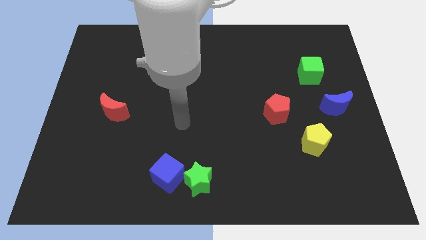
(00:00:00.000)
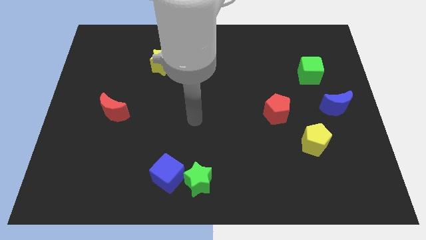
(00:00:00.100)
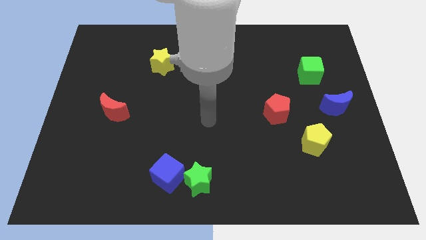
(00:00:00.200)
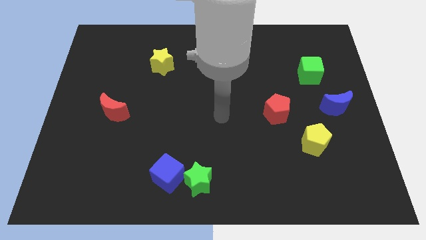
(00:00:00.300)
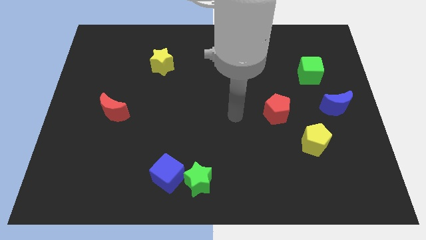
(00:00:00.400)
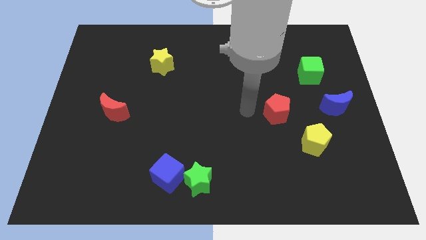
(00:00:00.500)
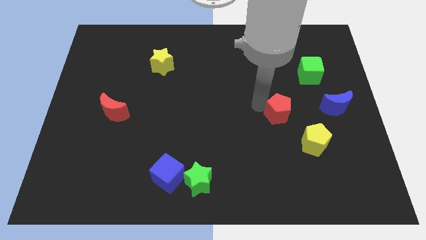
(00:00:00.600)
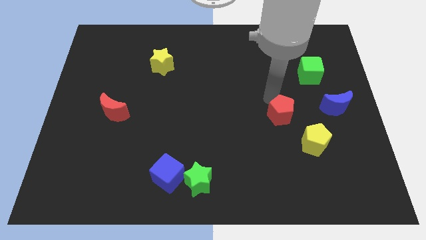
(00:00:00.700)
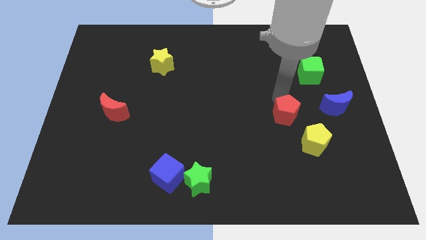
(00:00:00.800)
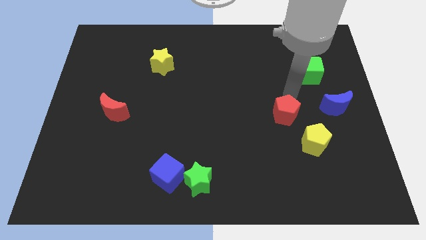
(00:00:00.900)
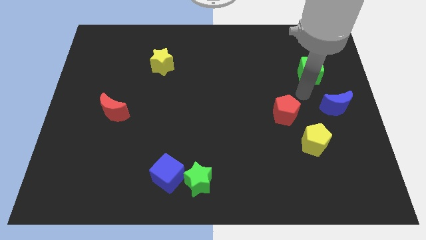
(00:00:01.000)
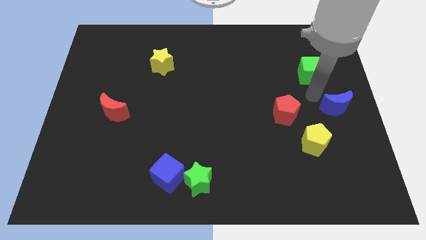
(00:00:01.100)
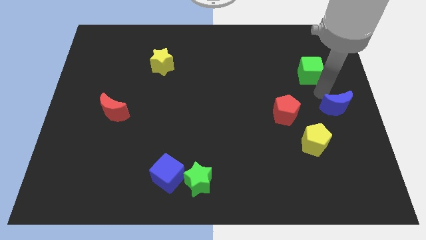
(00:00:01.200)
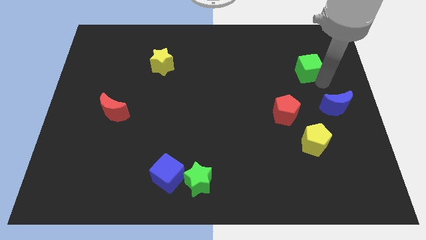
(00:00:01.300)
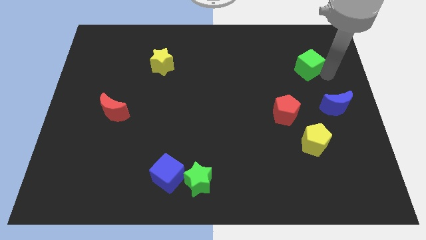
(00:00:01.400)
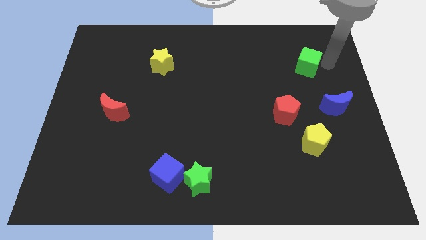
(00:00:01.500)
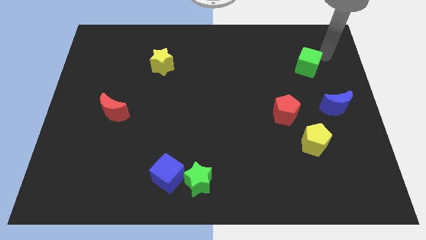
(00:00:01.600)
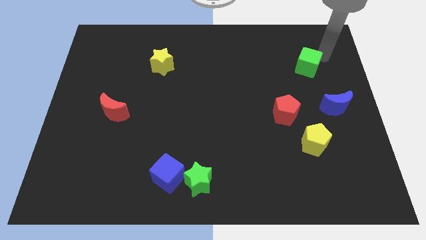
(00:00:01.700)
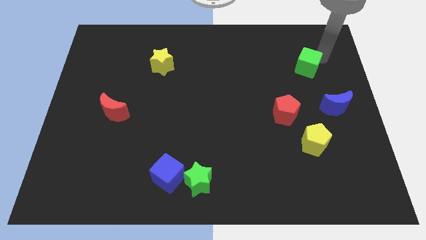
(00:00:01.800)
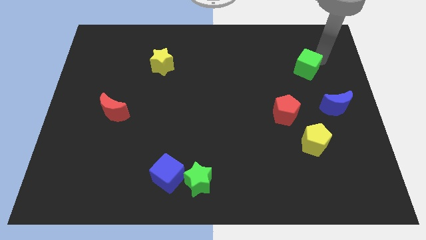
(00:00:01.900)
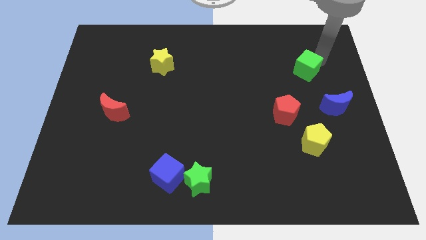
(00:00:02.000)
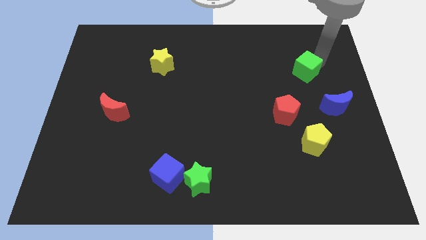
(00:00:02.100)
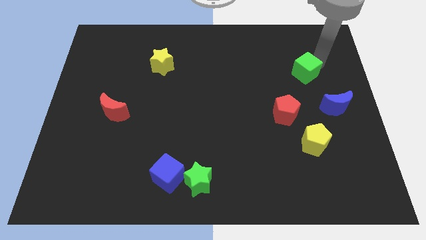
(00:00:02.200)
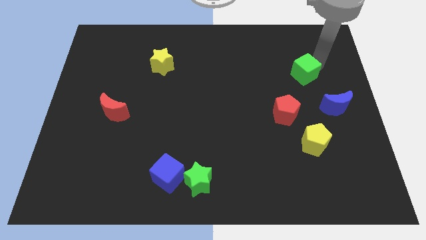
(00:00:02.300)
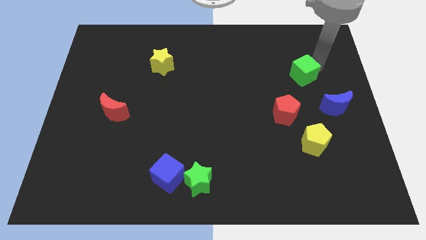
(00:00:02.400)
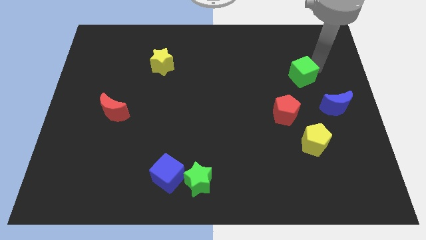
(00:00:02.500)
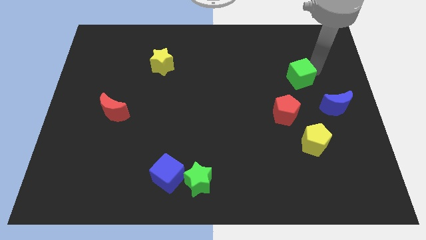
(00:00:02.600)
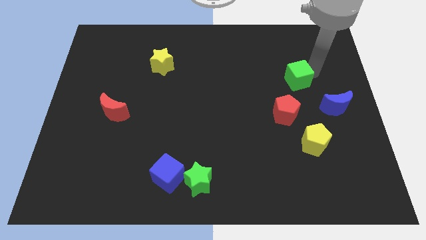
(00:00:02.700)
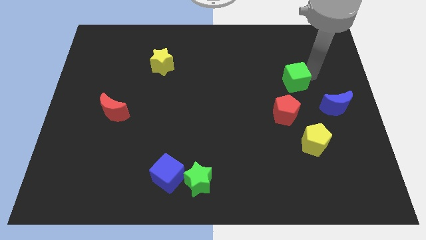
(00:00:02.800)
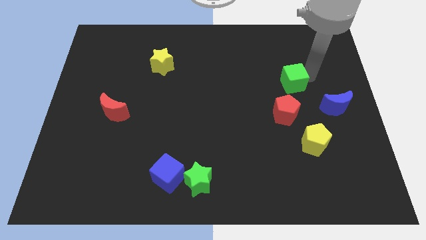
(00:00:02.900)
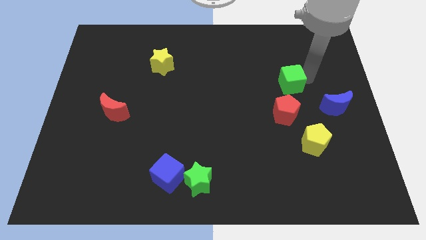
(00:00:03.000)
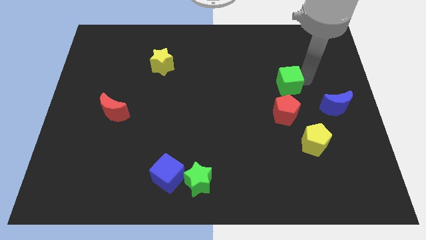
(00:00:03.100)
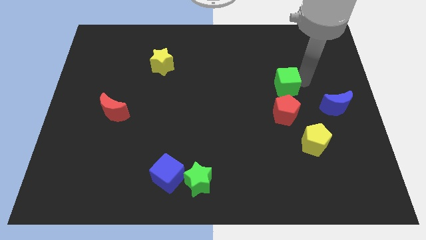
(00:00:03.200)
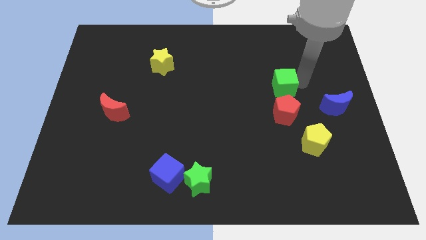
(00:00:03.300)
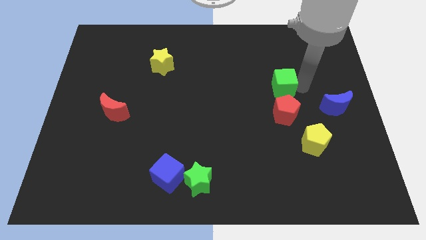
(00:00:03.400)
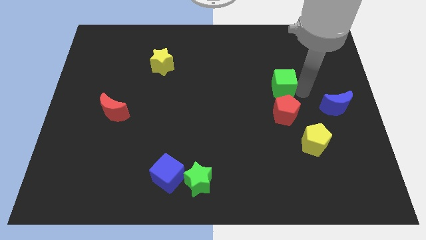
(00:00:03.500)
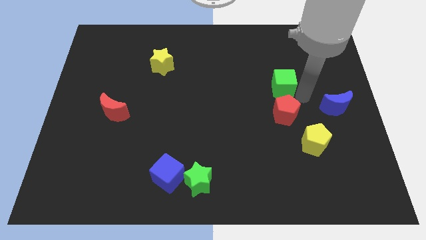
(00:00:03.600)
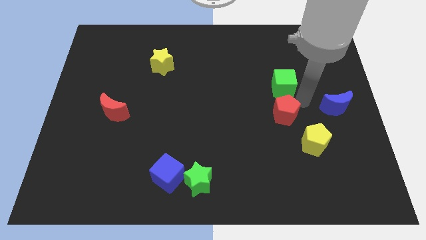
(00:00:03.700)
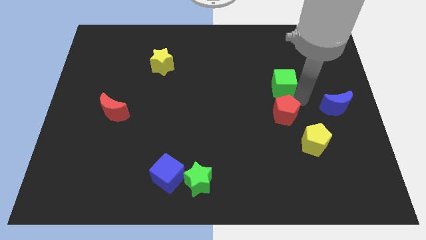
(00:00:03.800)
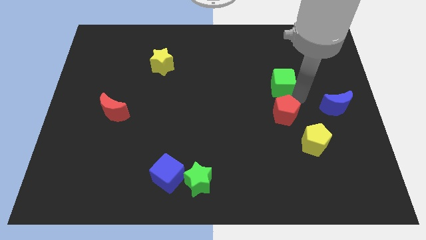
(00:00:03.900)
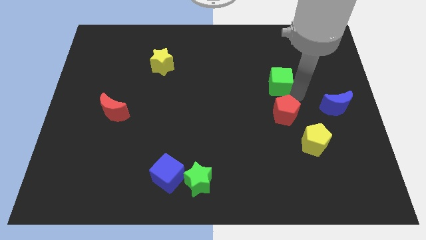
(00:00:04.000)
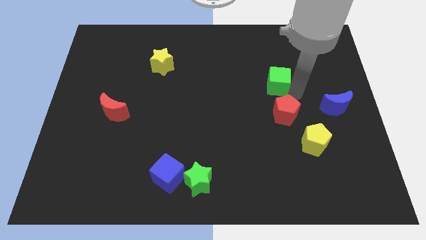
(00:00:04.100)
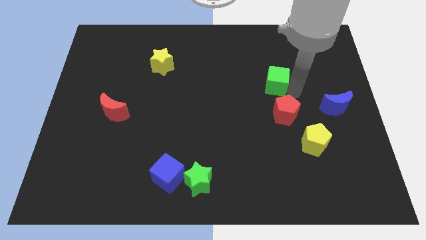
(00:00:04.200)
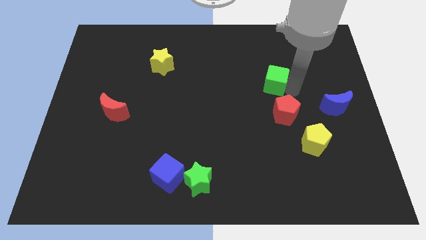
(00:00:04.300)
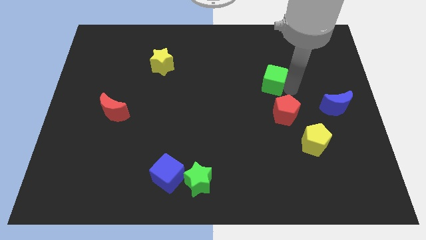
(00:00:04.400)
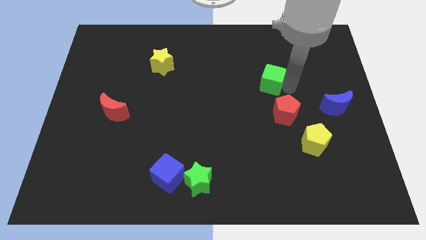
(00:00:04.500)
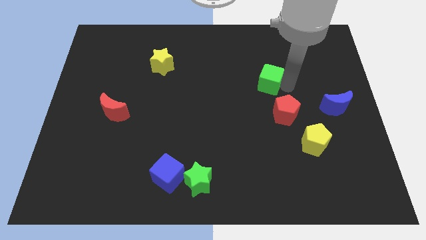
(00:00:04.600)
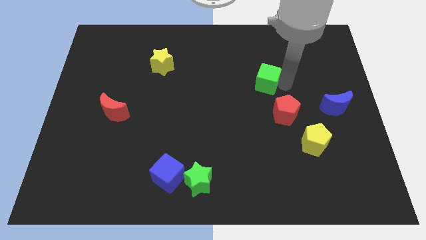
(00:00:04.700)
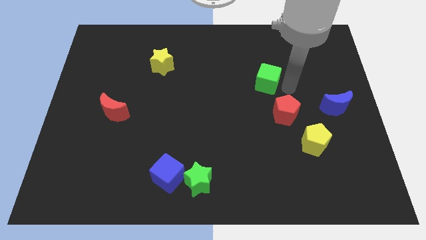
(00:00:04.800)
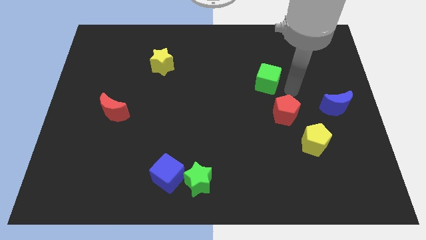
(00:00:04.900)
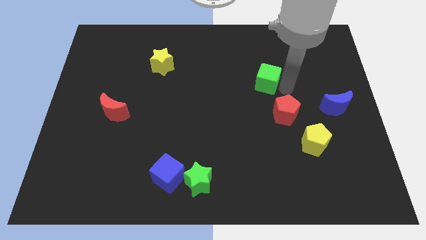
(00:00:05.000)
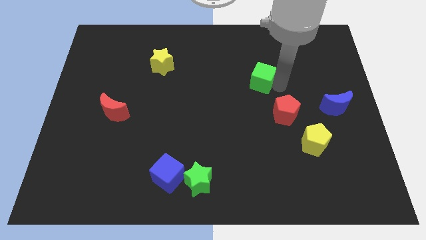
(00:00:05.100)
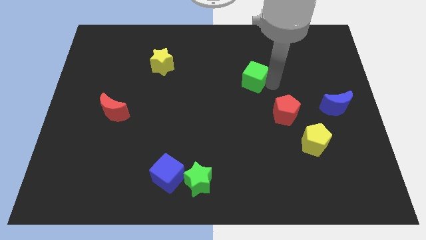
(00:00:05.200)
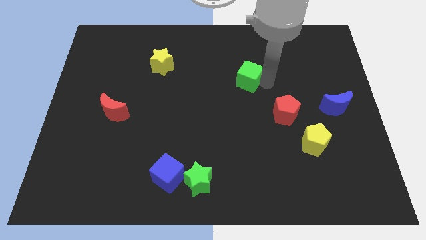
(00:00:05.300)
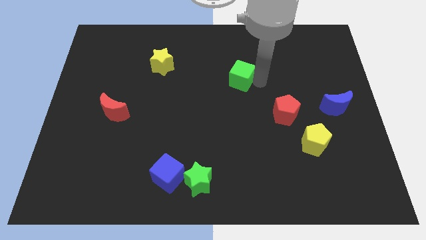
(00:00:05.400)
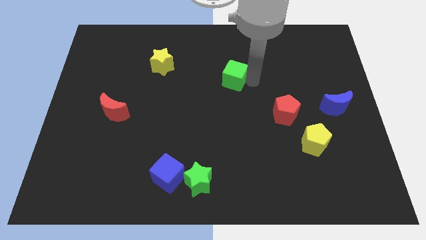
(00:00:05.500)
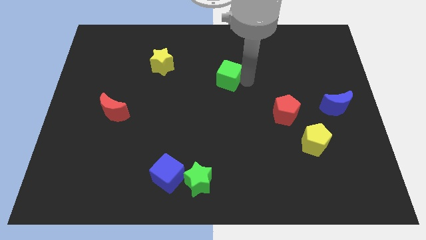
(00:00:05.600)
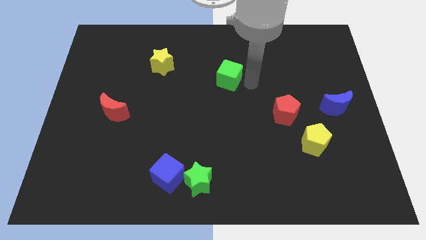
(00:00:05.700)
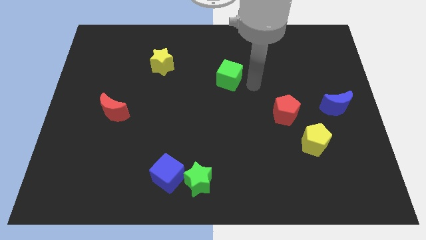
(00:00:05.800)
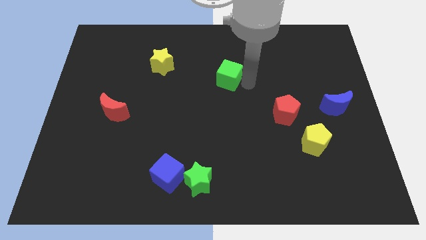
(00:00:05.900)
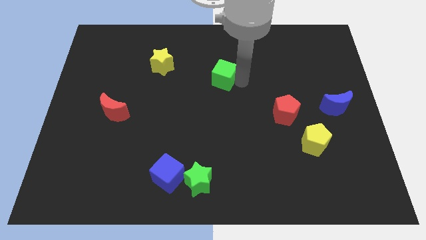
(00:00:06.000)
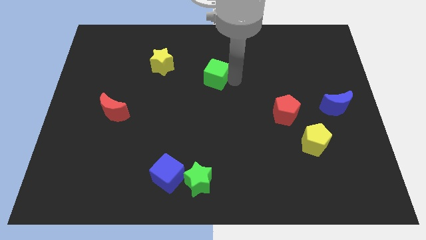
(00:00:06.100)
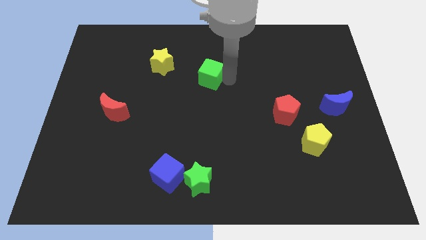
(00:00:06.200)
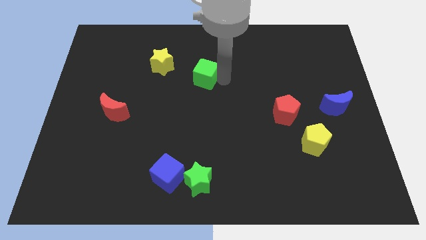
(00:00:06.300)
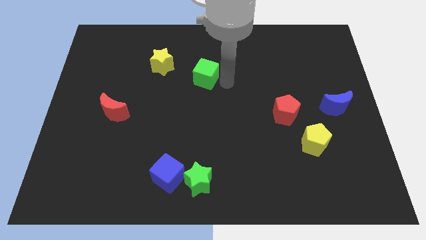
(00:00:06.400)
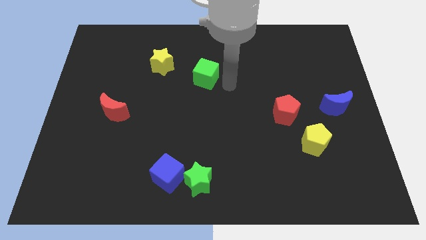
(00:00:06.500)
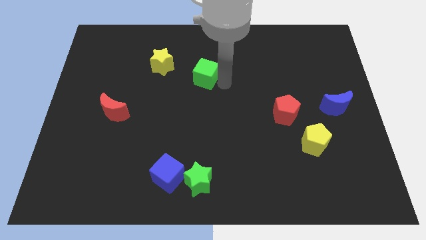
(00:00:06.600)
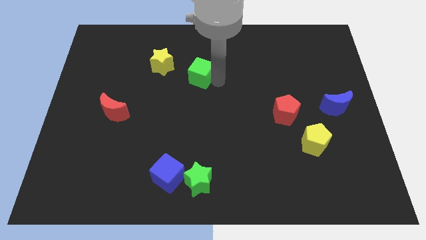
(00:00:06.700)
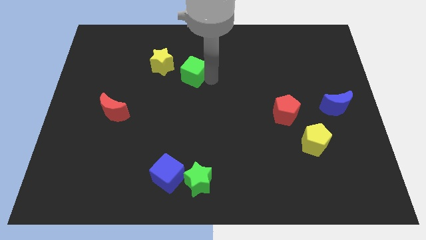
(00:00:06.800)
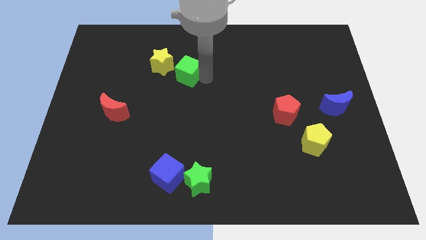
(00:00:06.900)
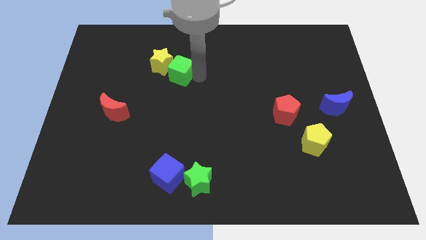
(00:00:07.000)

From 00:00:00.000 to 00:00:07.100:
put the green cube towards the yellow star
